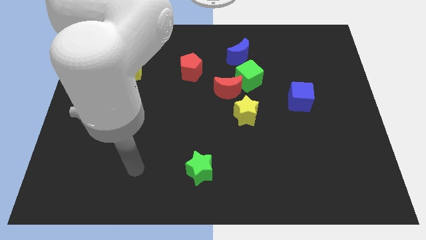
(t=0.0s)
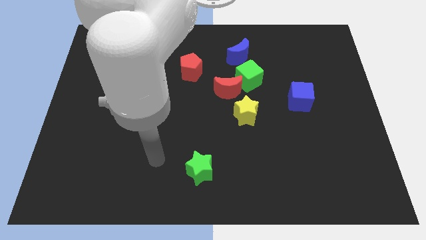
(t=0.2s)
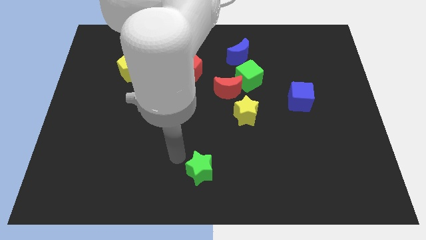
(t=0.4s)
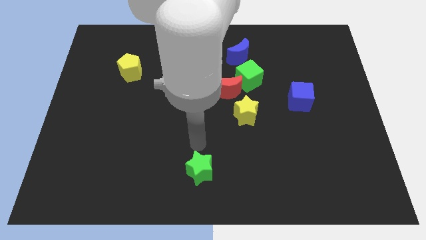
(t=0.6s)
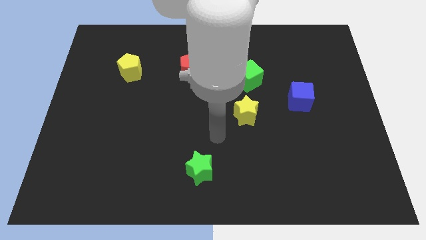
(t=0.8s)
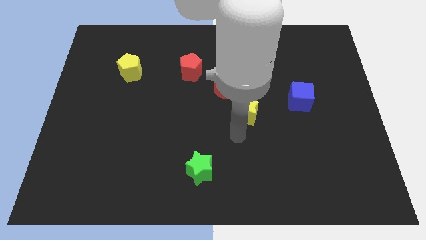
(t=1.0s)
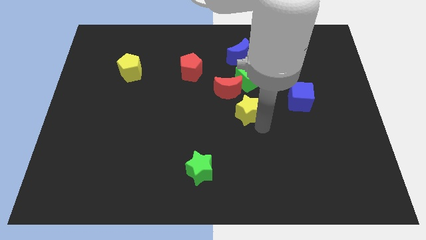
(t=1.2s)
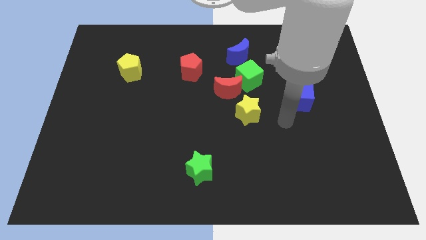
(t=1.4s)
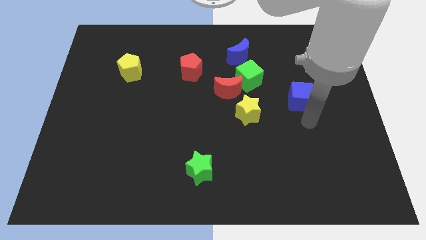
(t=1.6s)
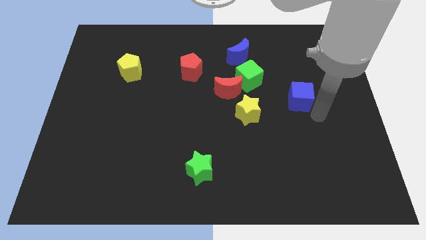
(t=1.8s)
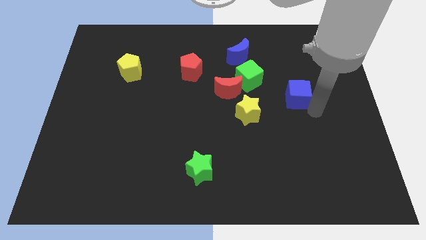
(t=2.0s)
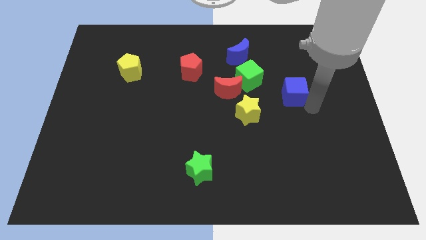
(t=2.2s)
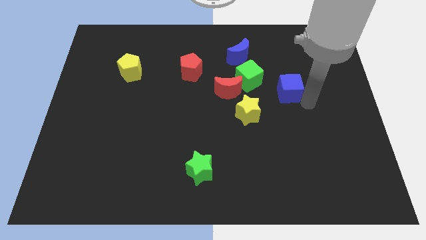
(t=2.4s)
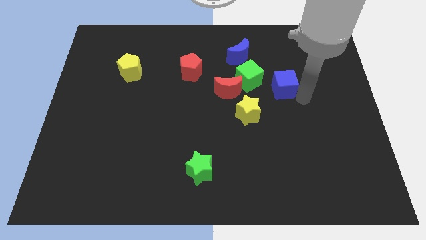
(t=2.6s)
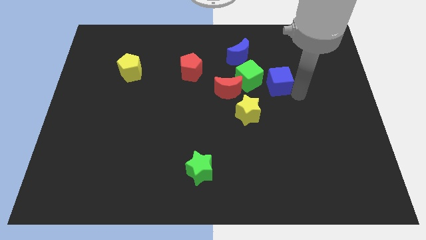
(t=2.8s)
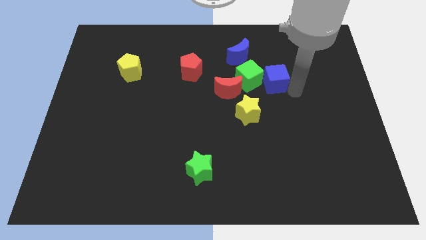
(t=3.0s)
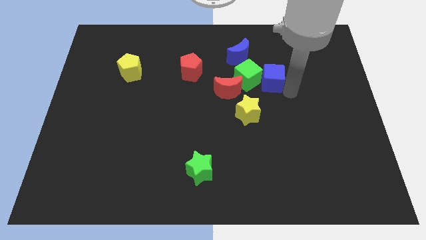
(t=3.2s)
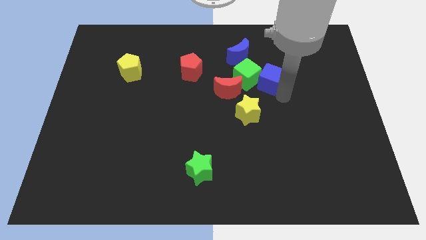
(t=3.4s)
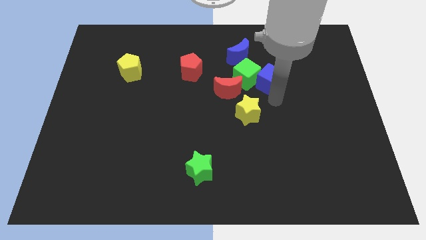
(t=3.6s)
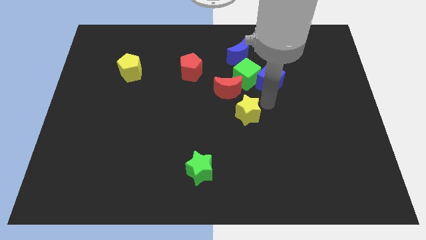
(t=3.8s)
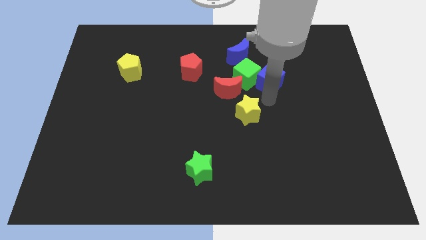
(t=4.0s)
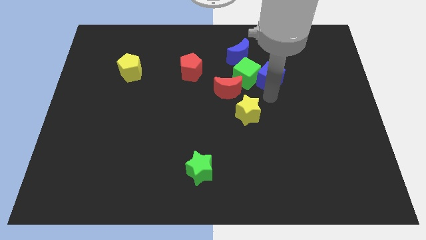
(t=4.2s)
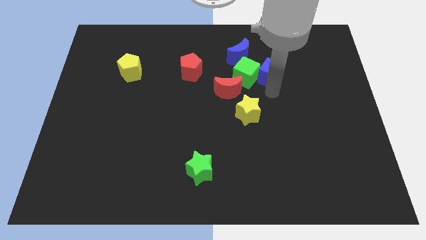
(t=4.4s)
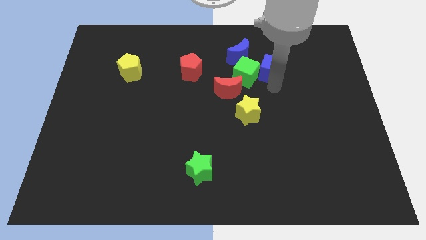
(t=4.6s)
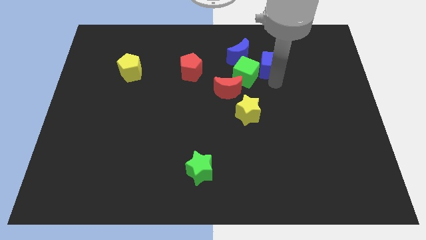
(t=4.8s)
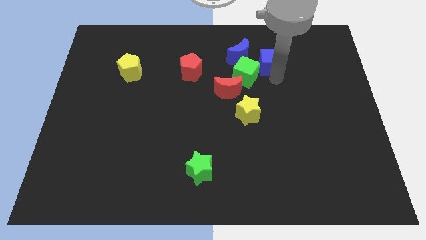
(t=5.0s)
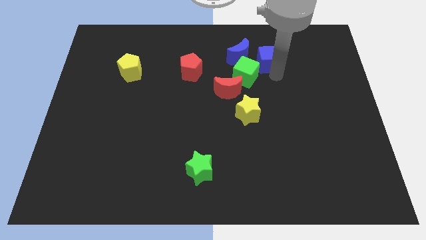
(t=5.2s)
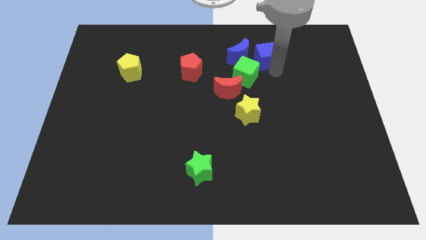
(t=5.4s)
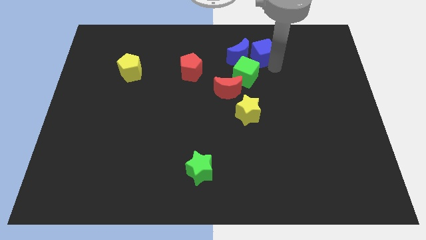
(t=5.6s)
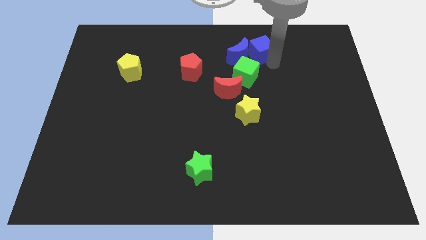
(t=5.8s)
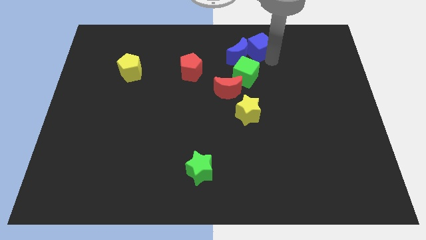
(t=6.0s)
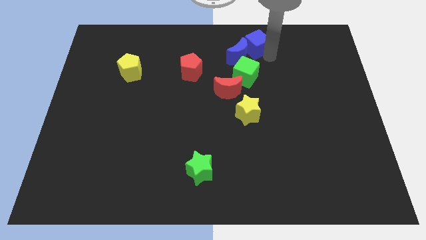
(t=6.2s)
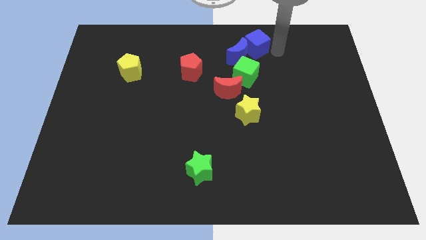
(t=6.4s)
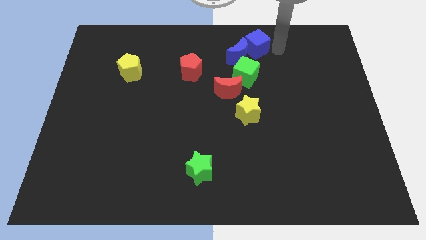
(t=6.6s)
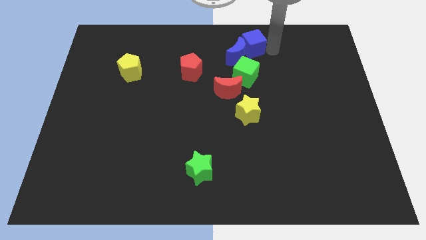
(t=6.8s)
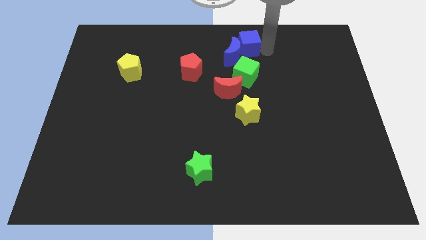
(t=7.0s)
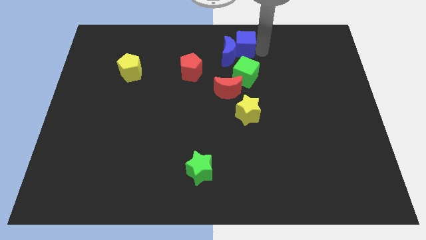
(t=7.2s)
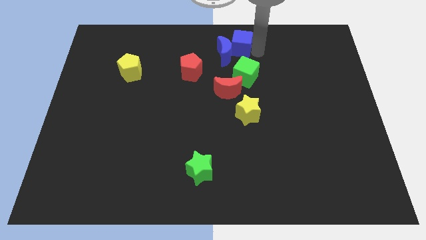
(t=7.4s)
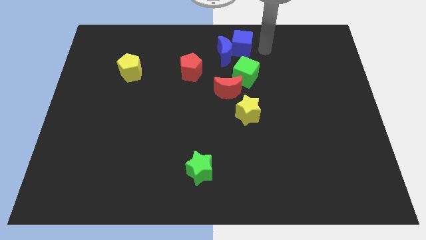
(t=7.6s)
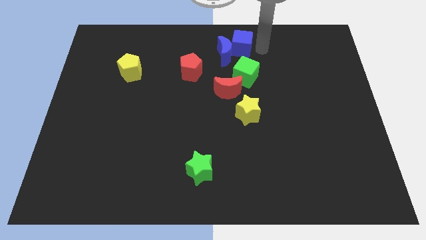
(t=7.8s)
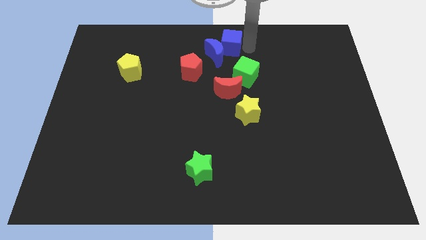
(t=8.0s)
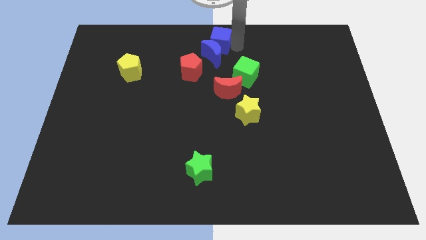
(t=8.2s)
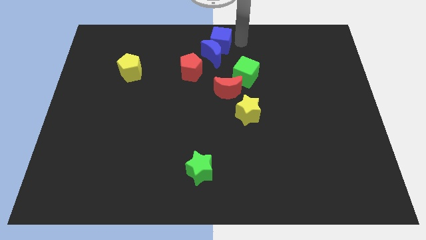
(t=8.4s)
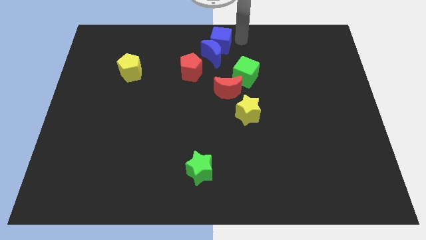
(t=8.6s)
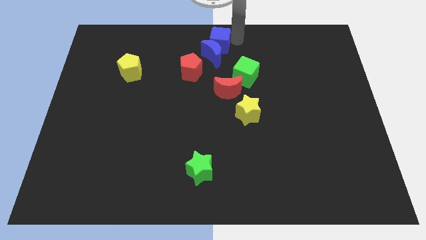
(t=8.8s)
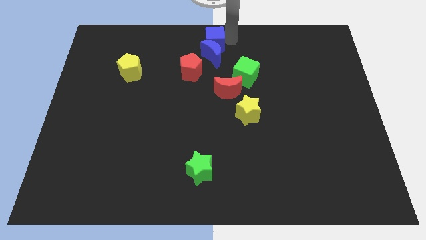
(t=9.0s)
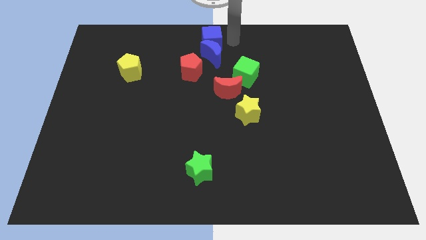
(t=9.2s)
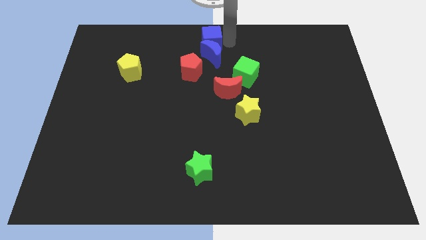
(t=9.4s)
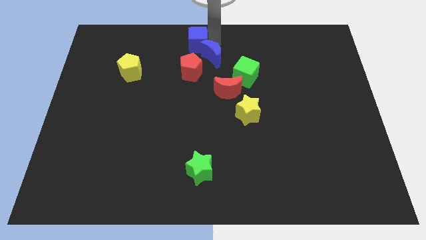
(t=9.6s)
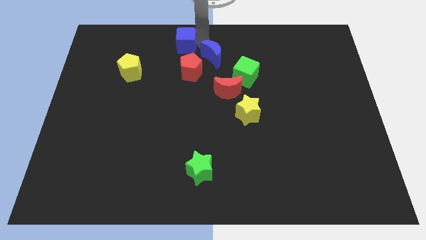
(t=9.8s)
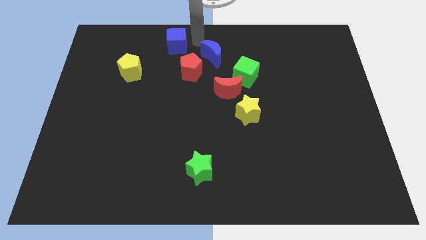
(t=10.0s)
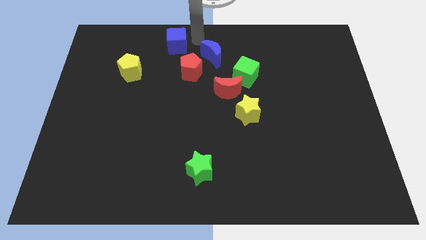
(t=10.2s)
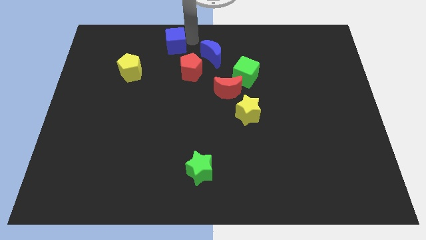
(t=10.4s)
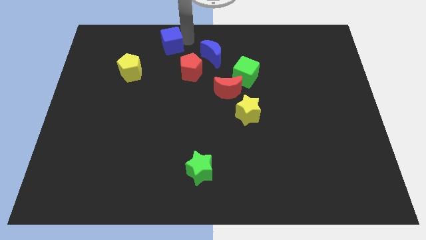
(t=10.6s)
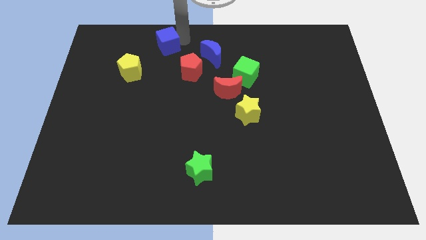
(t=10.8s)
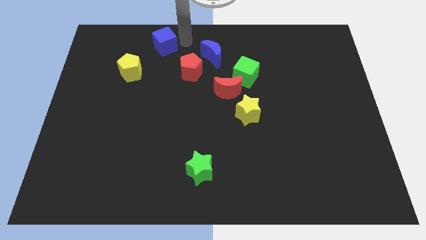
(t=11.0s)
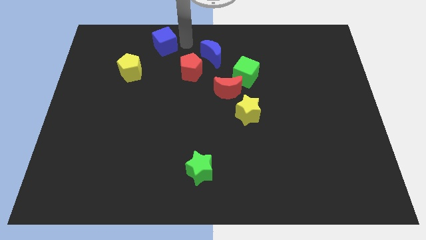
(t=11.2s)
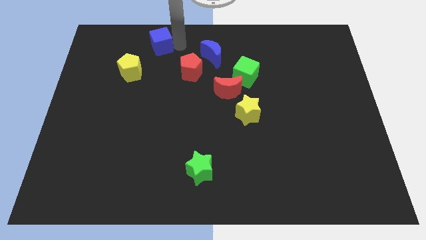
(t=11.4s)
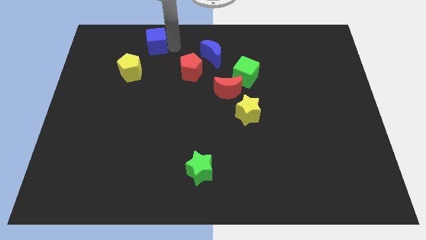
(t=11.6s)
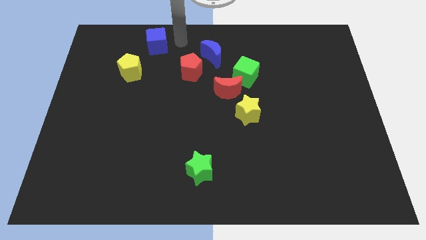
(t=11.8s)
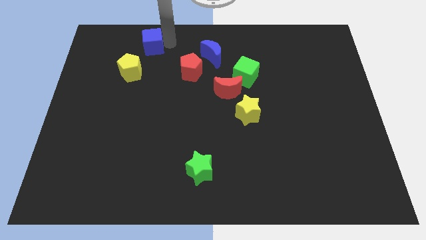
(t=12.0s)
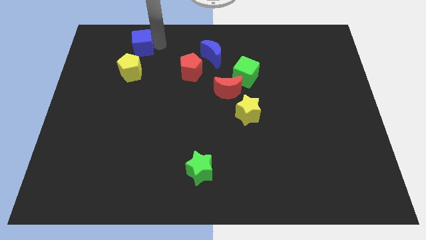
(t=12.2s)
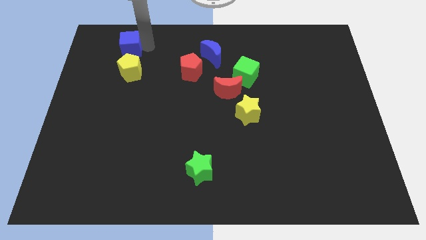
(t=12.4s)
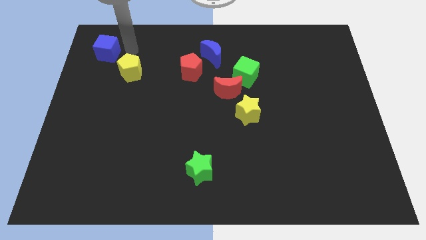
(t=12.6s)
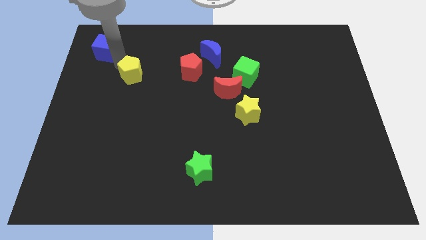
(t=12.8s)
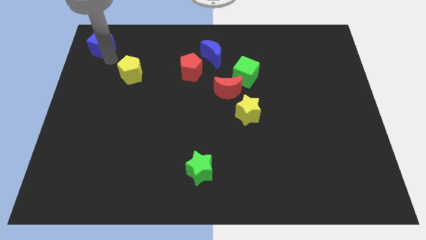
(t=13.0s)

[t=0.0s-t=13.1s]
put the blue cube to the top left
